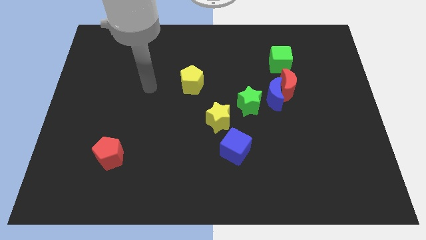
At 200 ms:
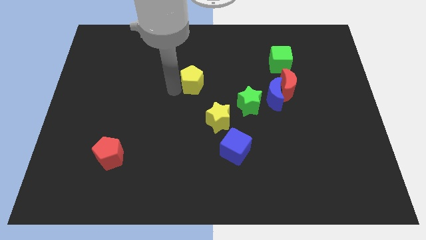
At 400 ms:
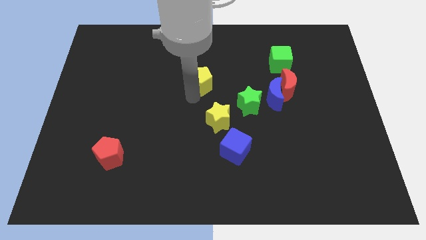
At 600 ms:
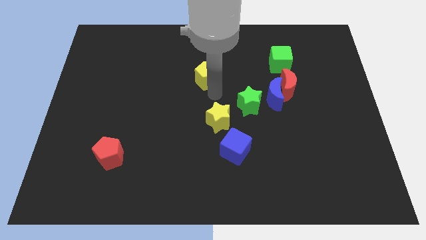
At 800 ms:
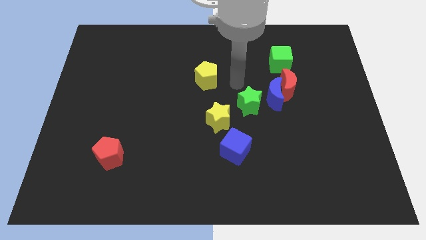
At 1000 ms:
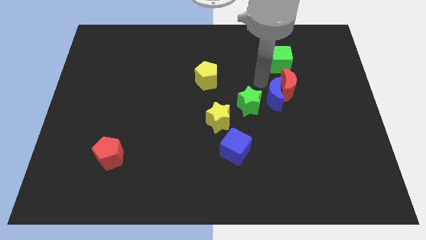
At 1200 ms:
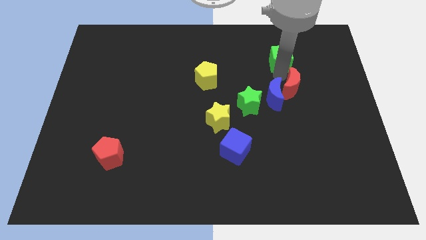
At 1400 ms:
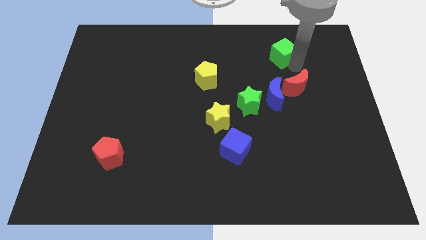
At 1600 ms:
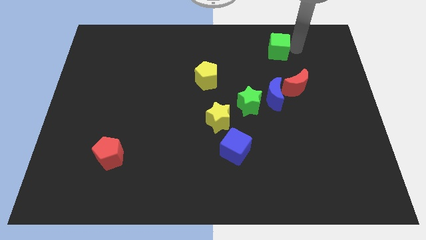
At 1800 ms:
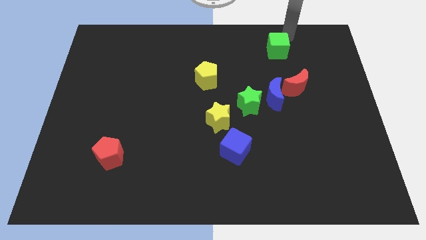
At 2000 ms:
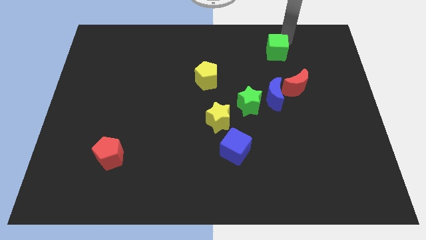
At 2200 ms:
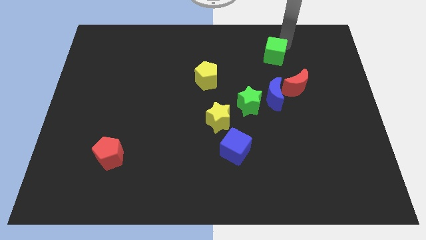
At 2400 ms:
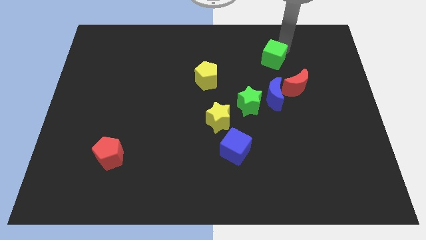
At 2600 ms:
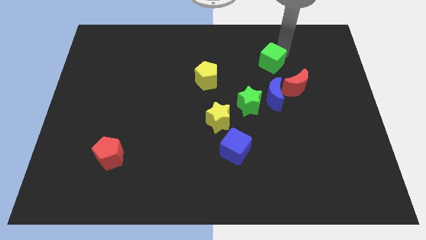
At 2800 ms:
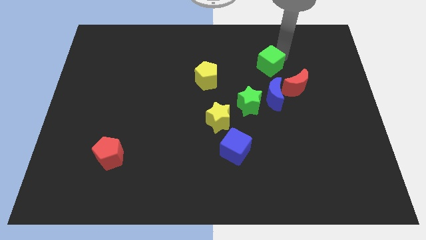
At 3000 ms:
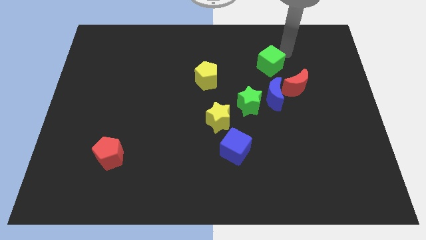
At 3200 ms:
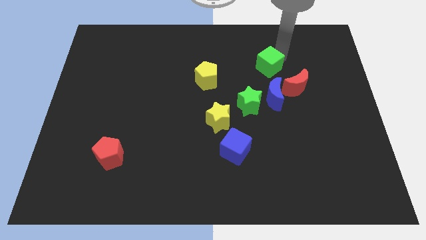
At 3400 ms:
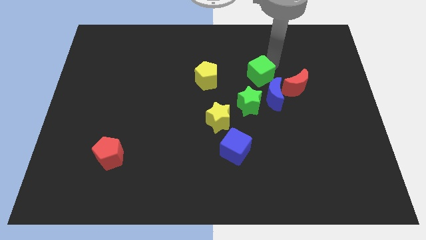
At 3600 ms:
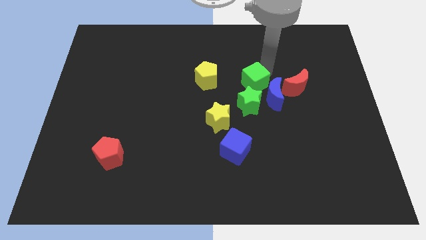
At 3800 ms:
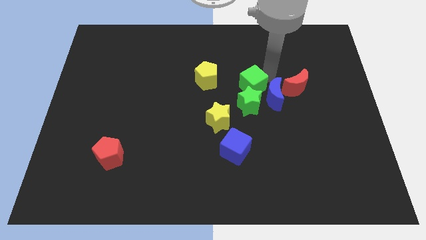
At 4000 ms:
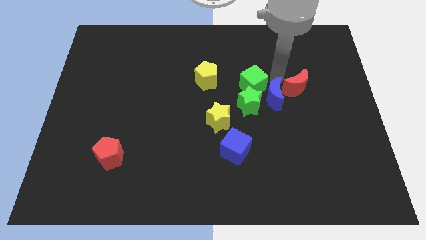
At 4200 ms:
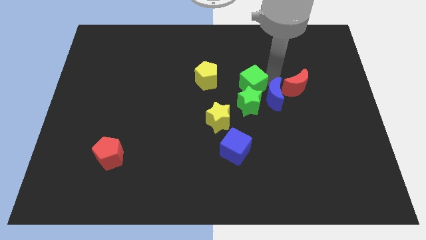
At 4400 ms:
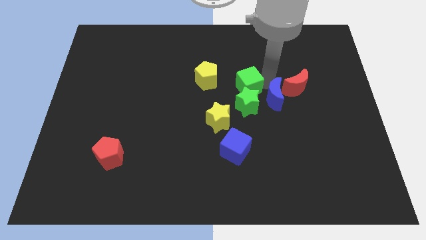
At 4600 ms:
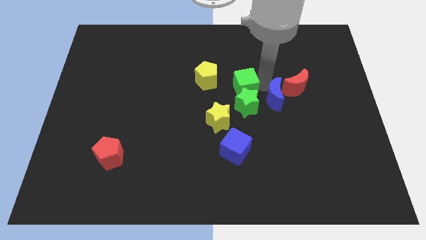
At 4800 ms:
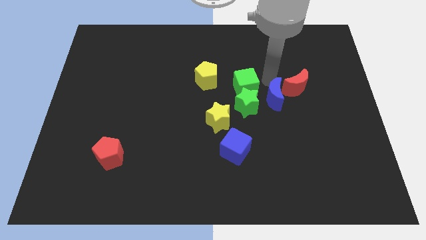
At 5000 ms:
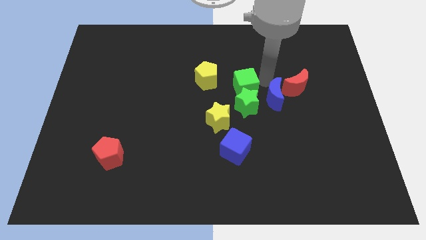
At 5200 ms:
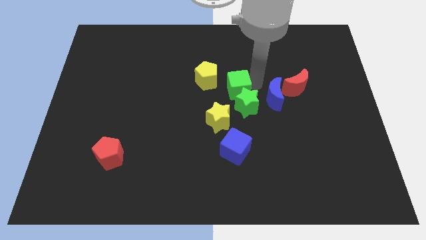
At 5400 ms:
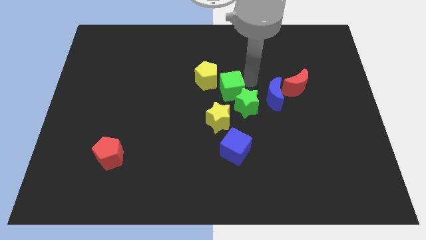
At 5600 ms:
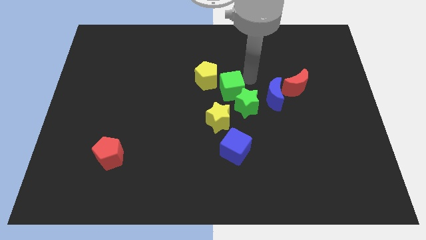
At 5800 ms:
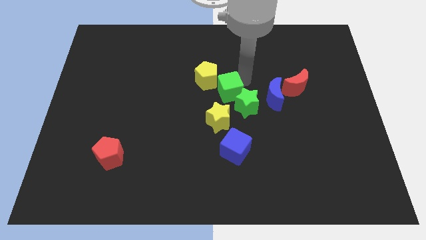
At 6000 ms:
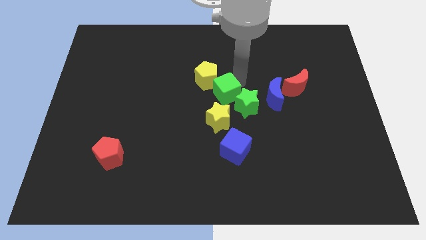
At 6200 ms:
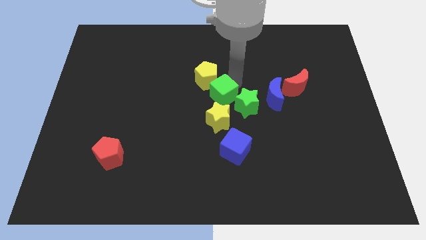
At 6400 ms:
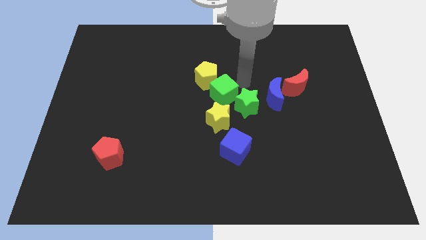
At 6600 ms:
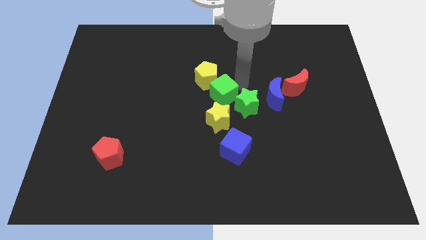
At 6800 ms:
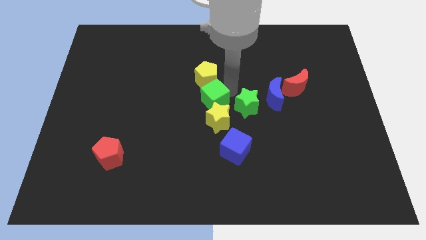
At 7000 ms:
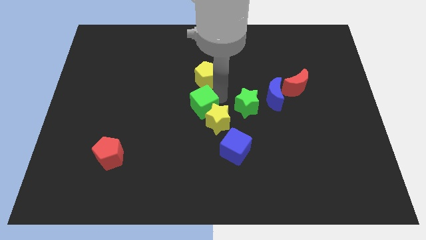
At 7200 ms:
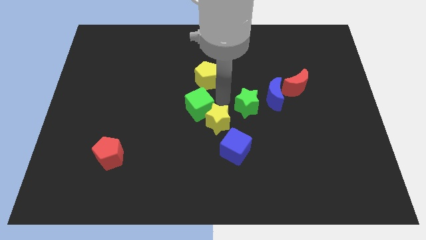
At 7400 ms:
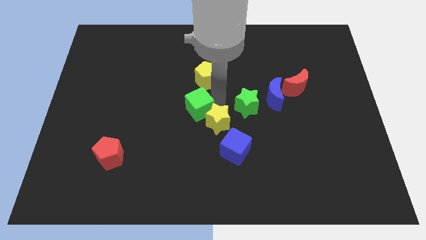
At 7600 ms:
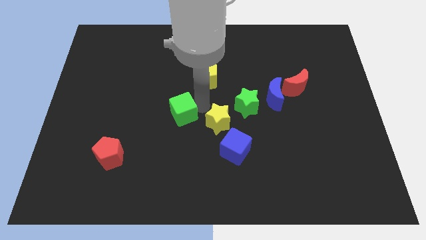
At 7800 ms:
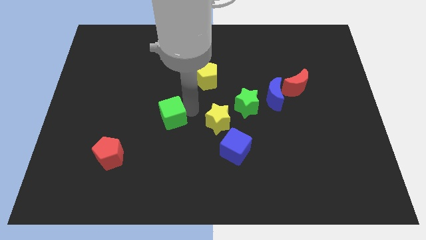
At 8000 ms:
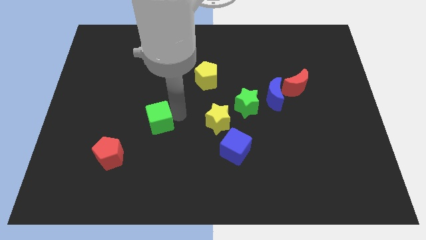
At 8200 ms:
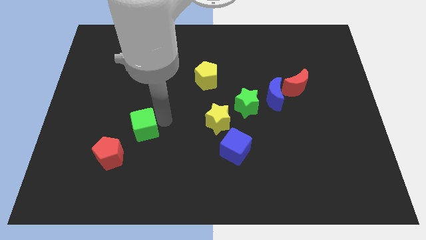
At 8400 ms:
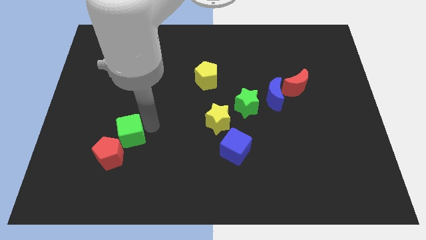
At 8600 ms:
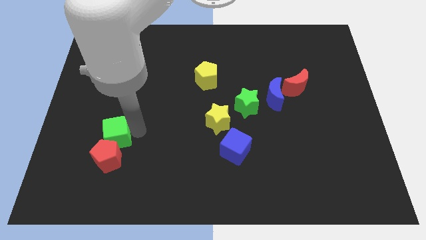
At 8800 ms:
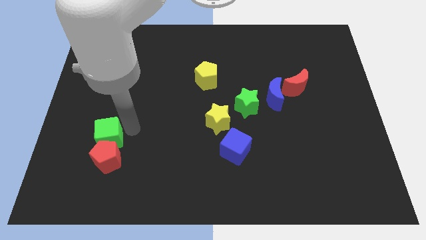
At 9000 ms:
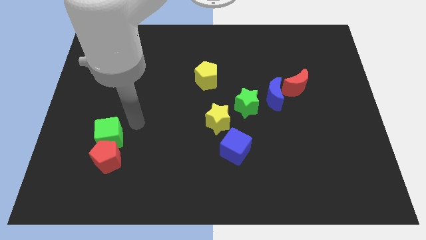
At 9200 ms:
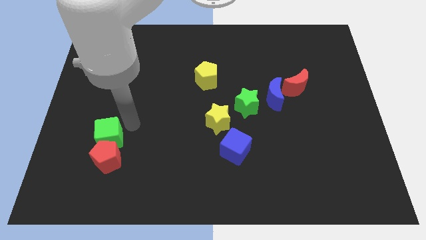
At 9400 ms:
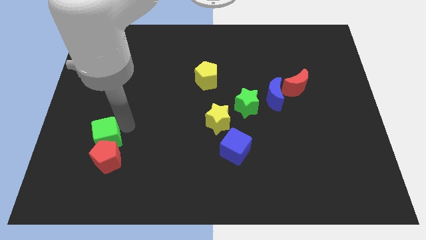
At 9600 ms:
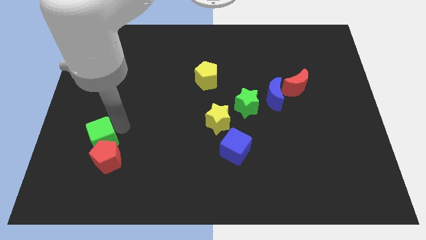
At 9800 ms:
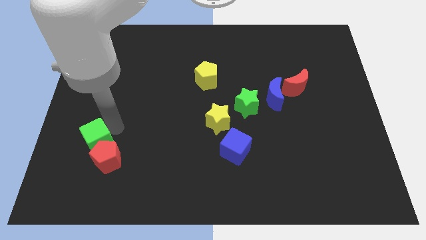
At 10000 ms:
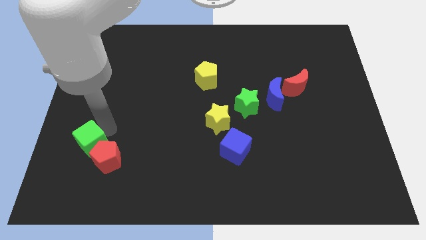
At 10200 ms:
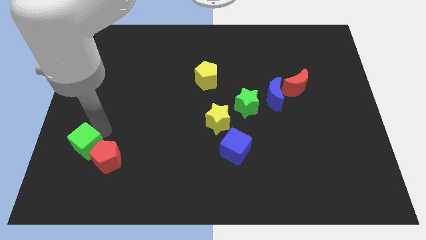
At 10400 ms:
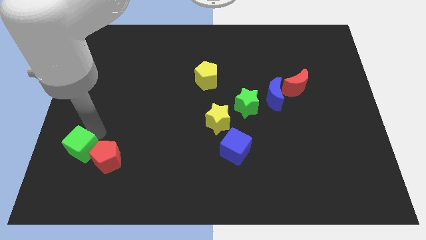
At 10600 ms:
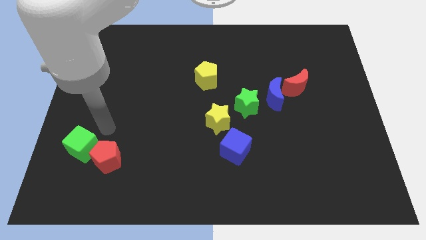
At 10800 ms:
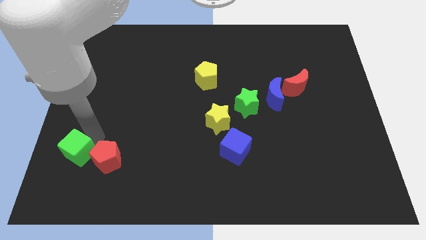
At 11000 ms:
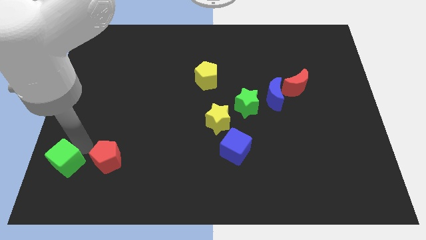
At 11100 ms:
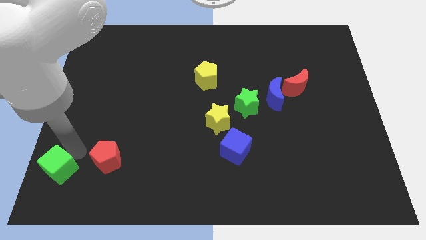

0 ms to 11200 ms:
put the green cube to the lower left corner
